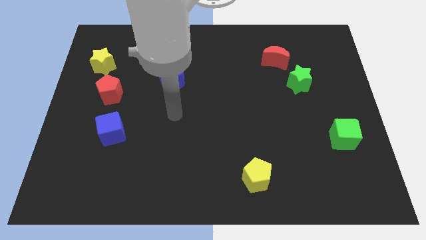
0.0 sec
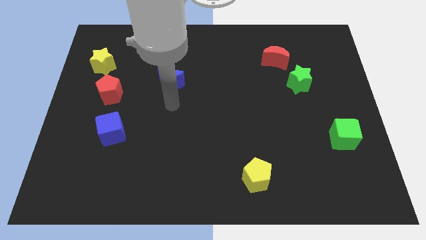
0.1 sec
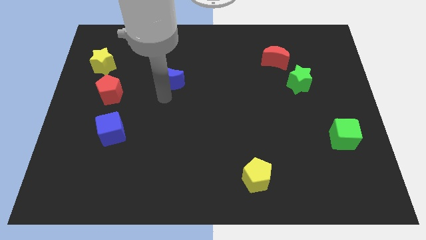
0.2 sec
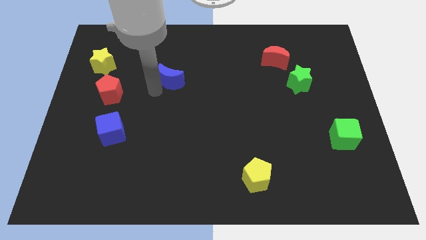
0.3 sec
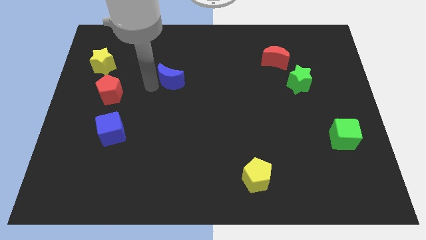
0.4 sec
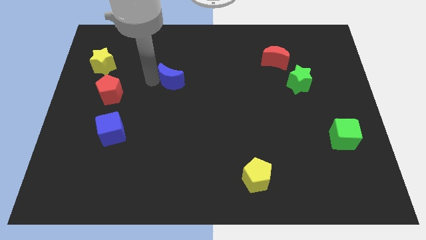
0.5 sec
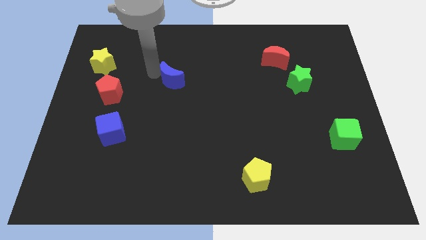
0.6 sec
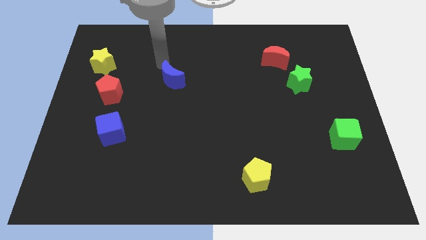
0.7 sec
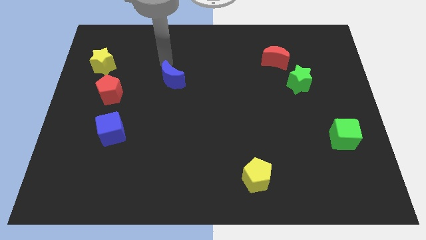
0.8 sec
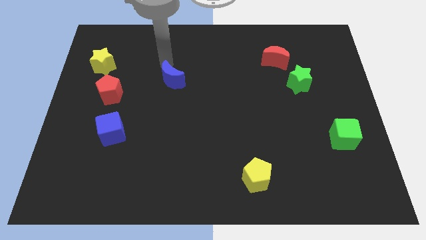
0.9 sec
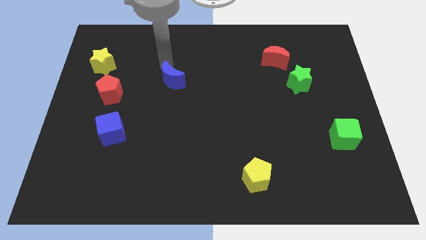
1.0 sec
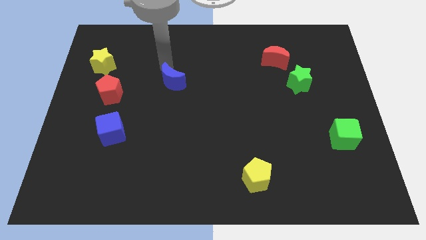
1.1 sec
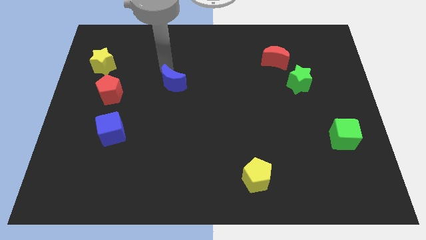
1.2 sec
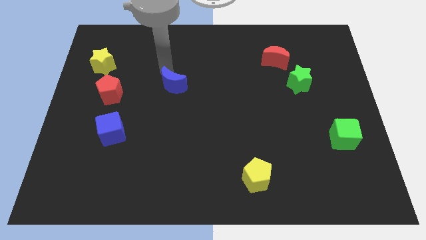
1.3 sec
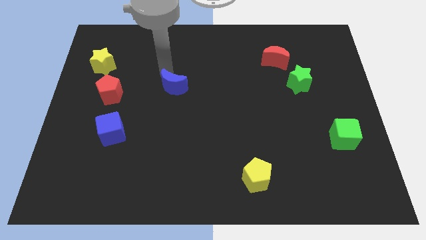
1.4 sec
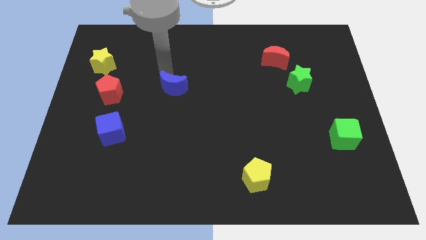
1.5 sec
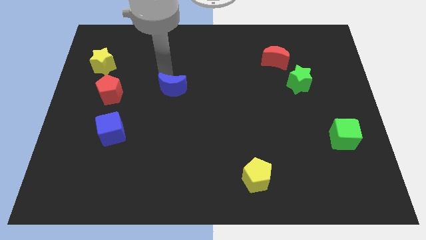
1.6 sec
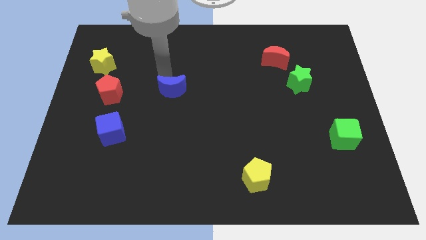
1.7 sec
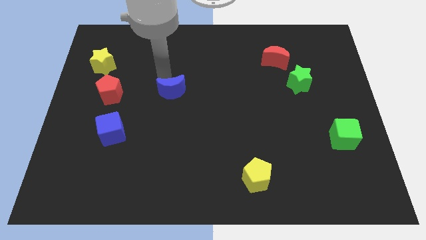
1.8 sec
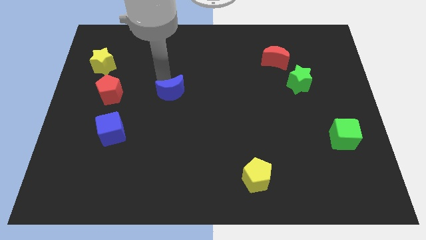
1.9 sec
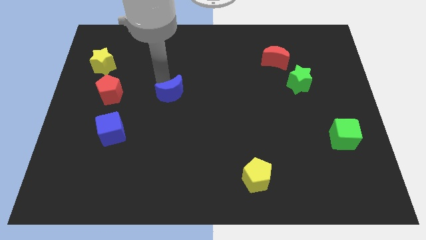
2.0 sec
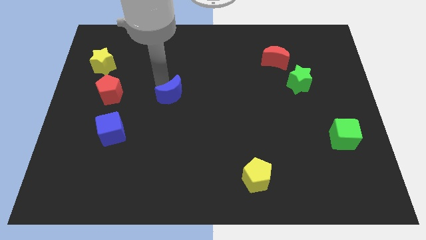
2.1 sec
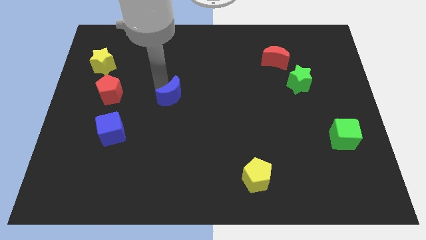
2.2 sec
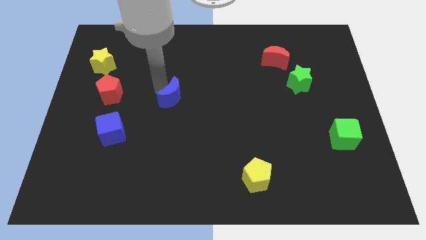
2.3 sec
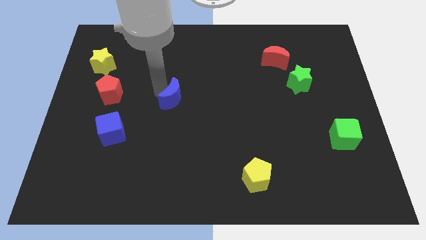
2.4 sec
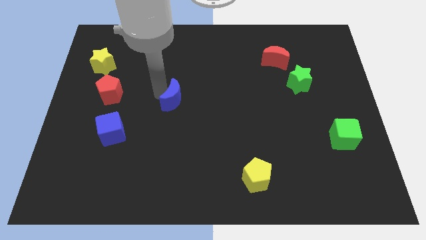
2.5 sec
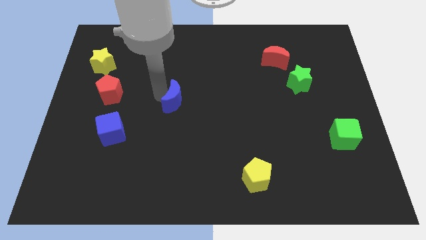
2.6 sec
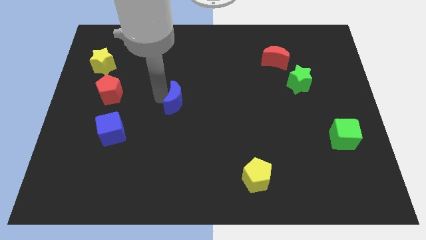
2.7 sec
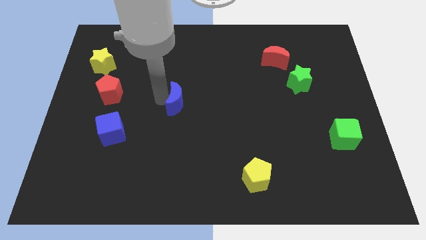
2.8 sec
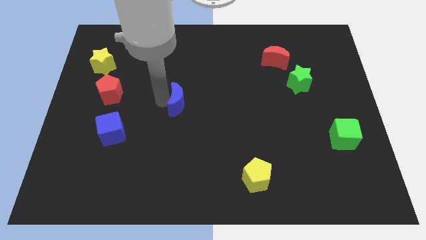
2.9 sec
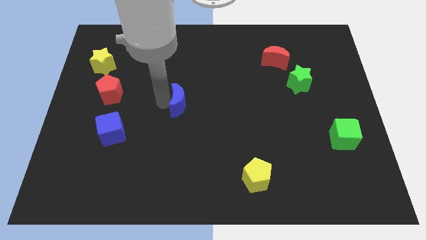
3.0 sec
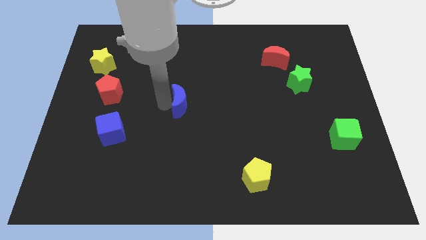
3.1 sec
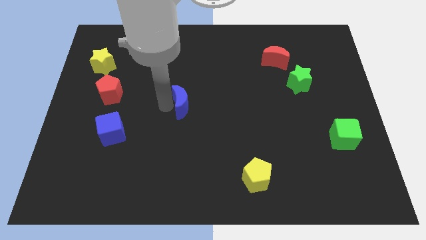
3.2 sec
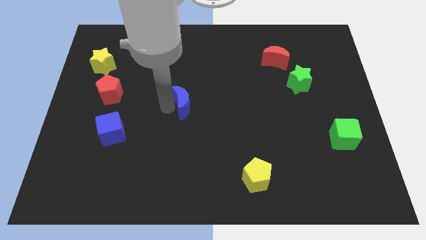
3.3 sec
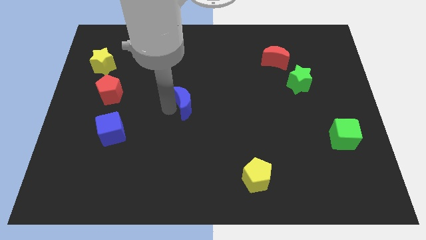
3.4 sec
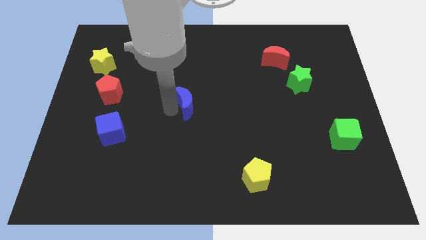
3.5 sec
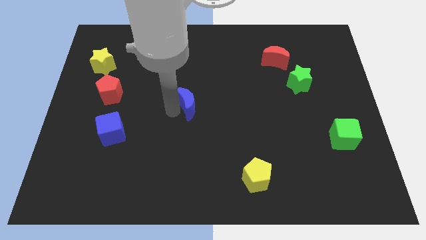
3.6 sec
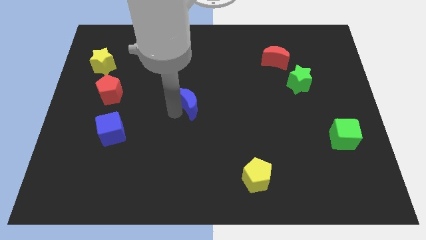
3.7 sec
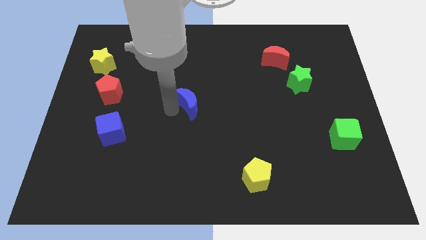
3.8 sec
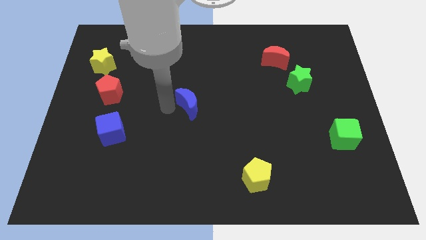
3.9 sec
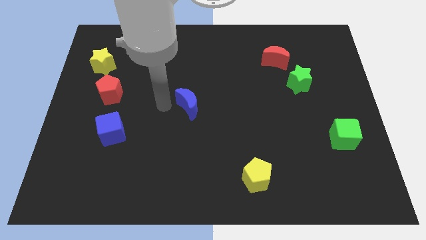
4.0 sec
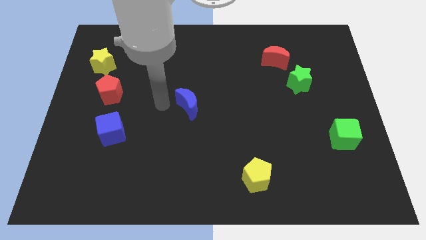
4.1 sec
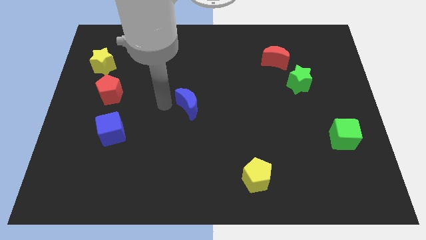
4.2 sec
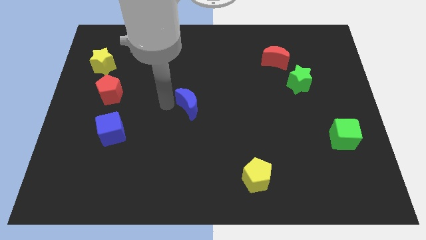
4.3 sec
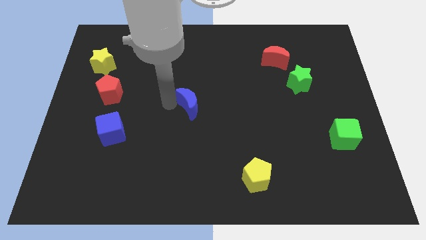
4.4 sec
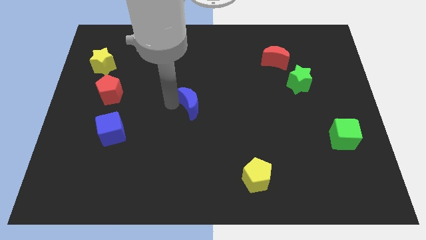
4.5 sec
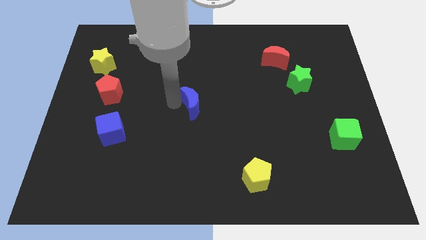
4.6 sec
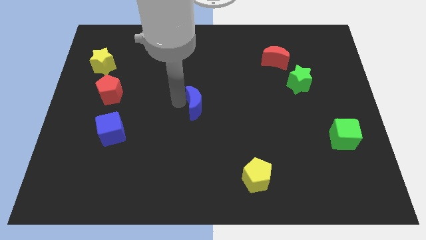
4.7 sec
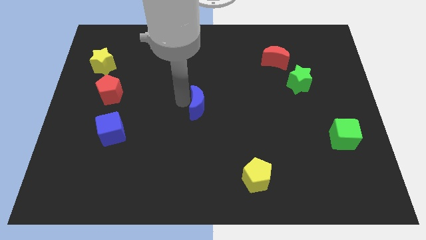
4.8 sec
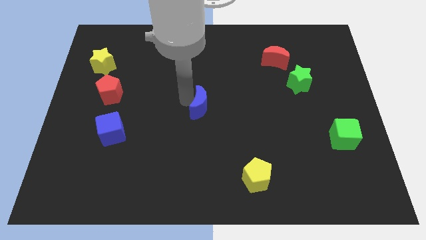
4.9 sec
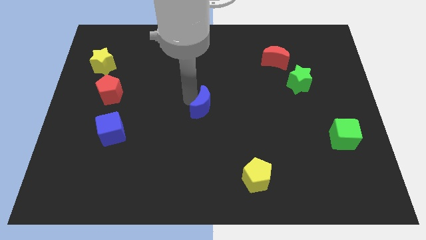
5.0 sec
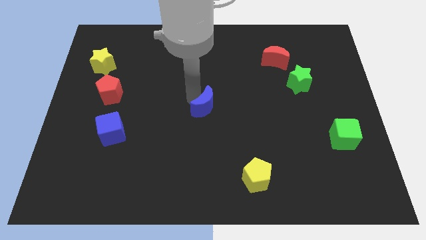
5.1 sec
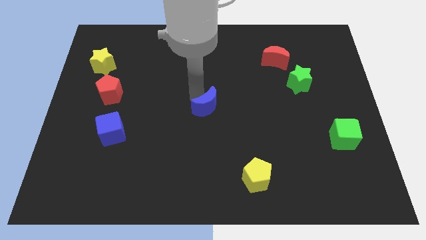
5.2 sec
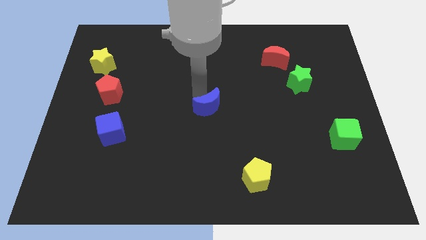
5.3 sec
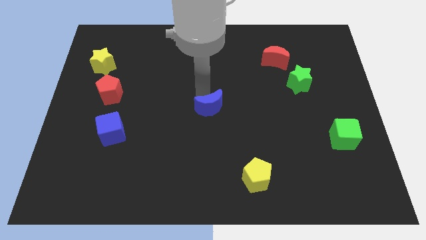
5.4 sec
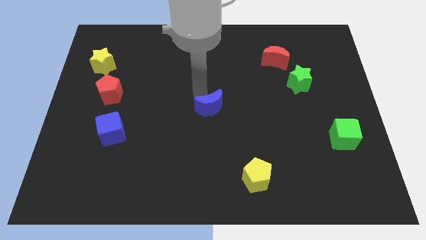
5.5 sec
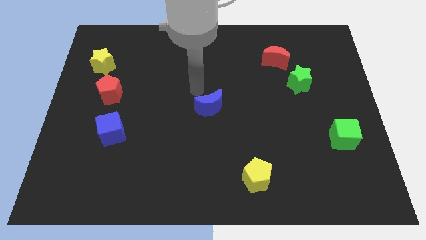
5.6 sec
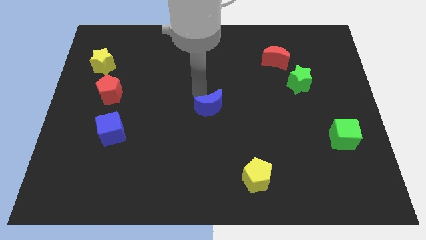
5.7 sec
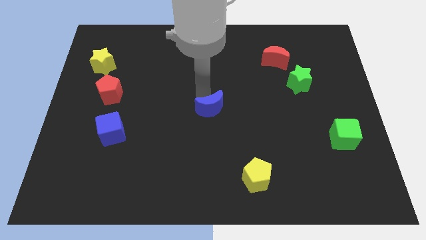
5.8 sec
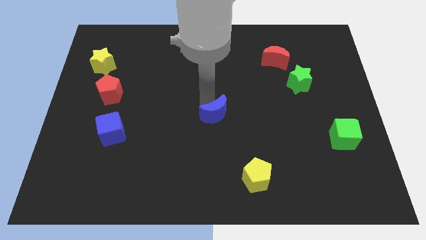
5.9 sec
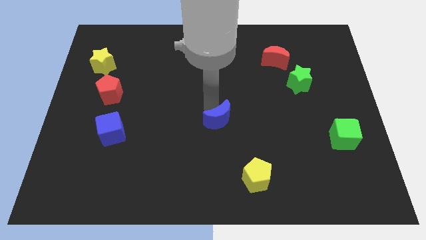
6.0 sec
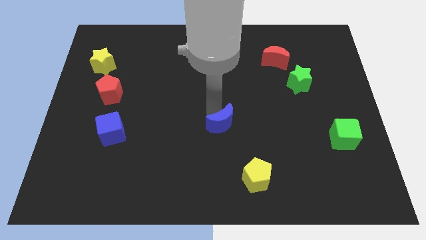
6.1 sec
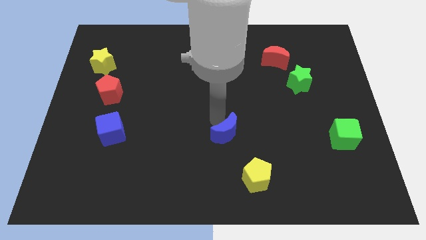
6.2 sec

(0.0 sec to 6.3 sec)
move the blue moon down and right

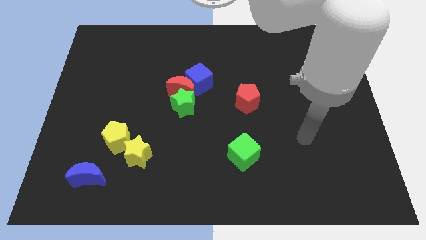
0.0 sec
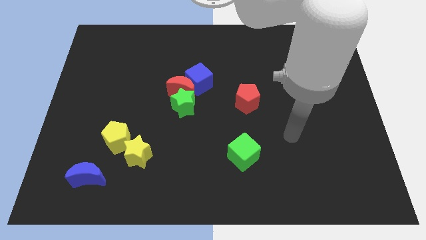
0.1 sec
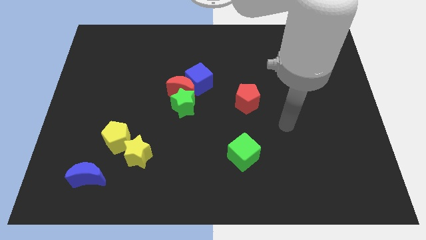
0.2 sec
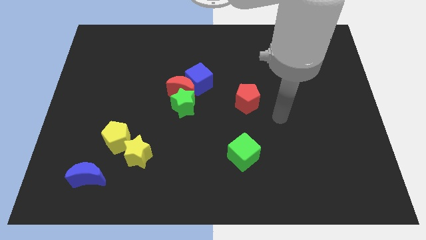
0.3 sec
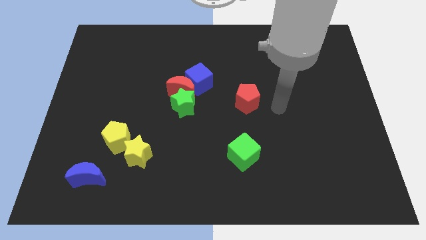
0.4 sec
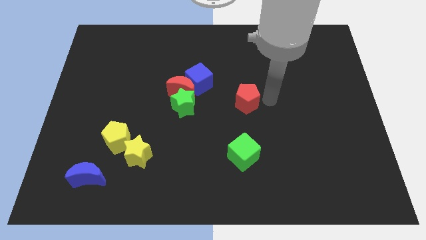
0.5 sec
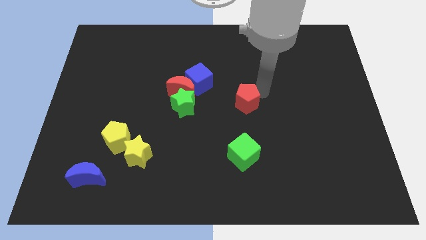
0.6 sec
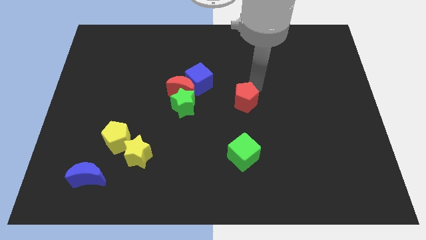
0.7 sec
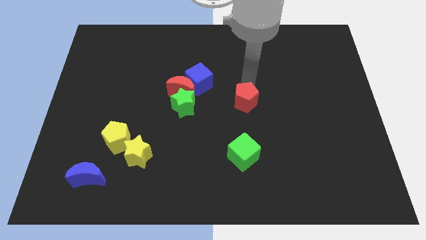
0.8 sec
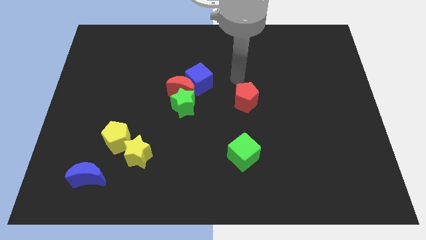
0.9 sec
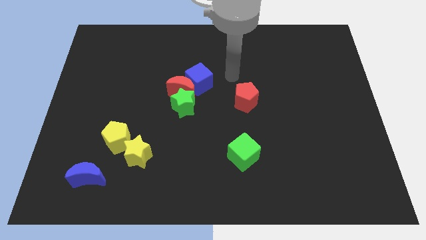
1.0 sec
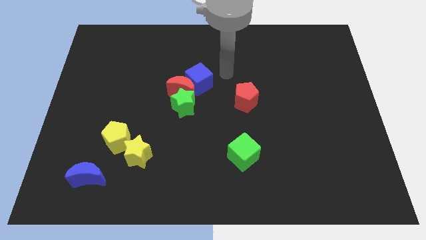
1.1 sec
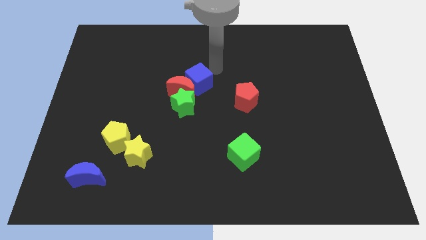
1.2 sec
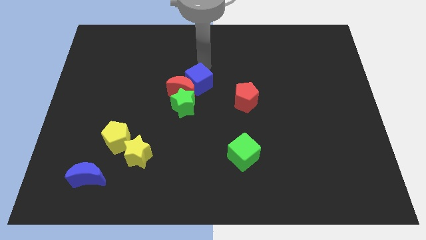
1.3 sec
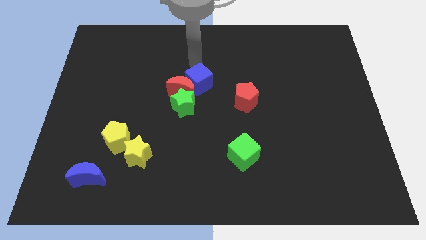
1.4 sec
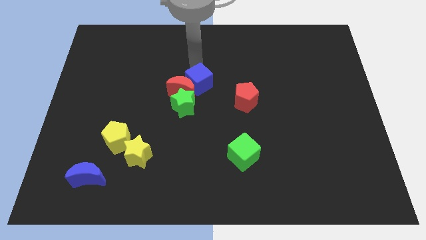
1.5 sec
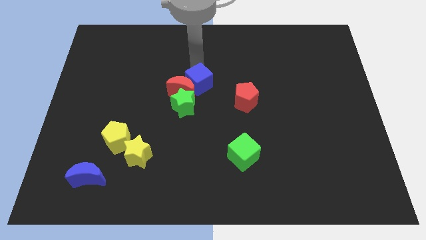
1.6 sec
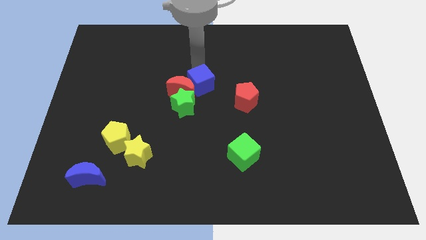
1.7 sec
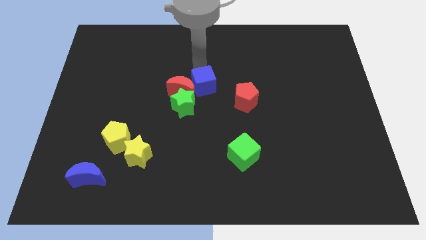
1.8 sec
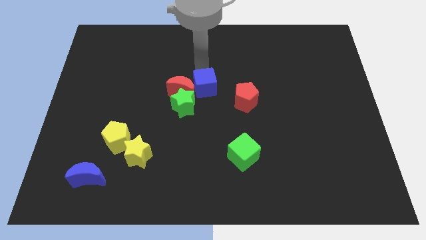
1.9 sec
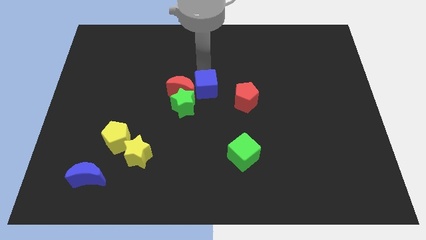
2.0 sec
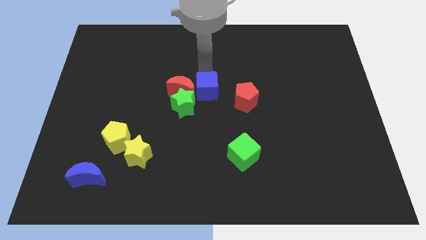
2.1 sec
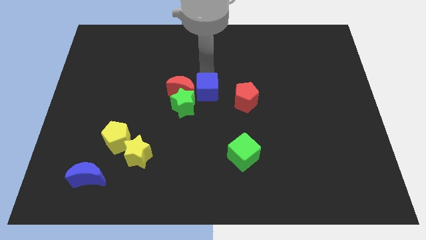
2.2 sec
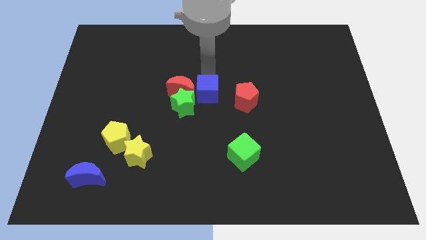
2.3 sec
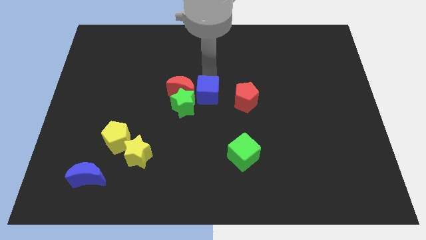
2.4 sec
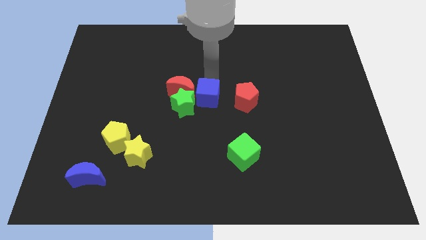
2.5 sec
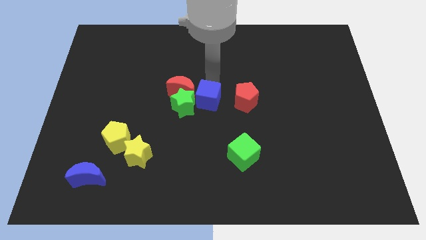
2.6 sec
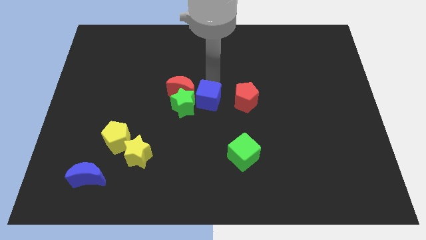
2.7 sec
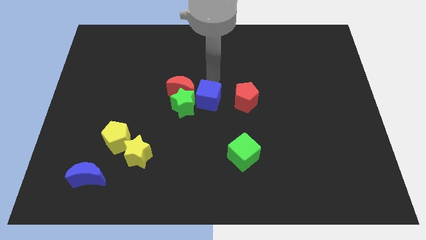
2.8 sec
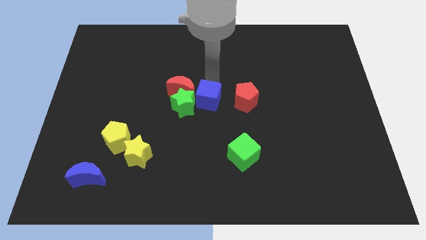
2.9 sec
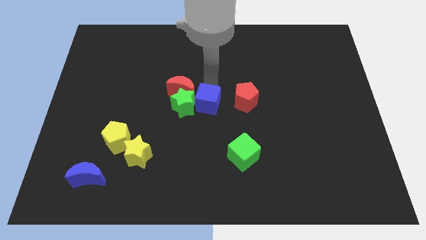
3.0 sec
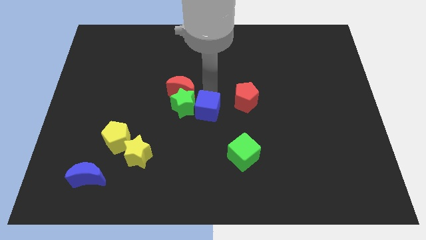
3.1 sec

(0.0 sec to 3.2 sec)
slide the blue cube downwards somewhat
